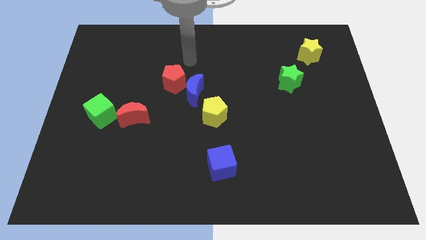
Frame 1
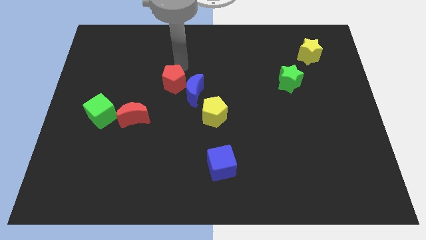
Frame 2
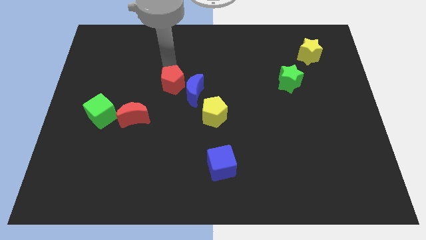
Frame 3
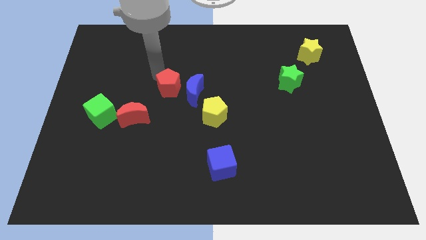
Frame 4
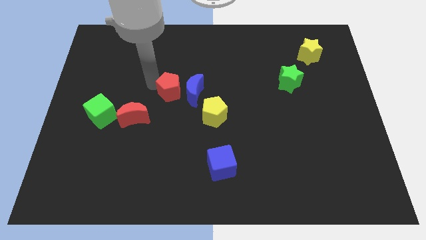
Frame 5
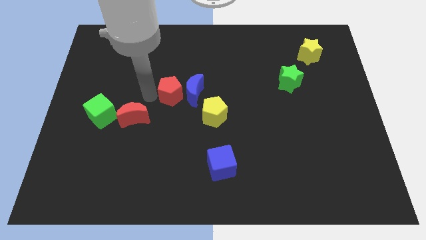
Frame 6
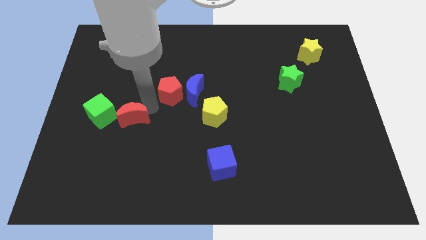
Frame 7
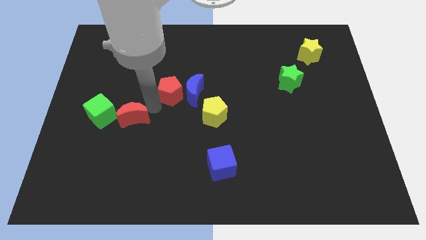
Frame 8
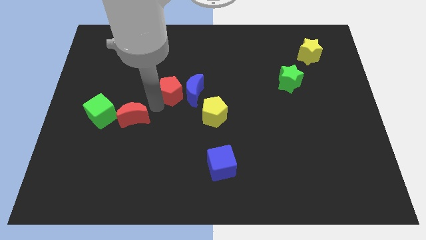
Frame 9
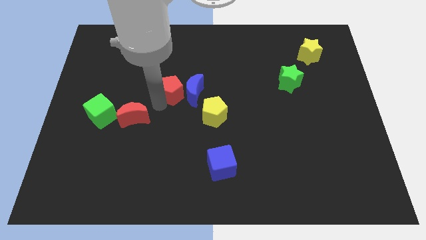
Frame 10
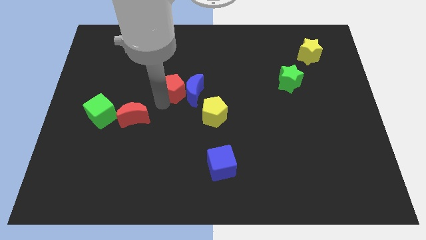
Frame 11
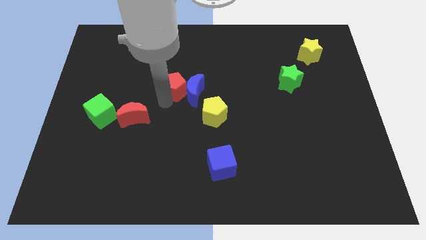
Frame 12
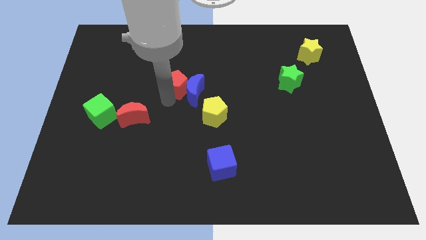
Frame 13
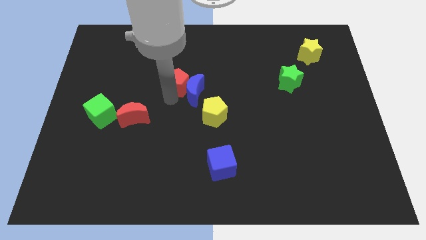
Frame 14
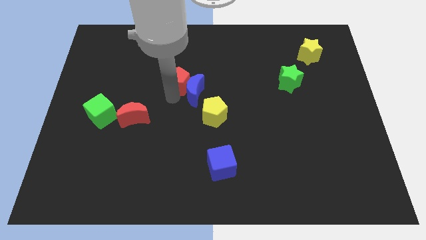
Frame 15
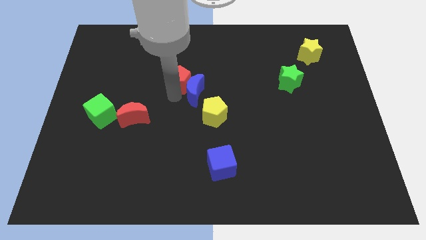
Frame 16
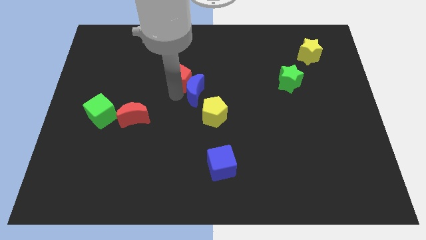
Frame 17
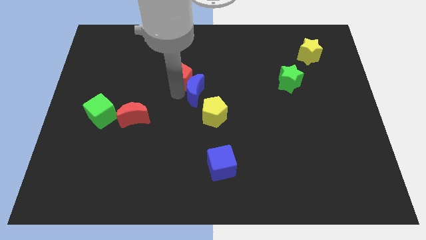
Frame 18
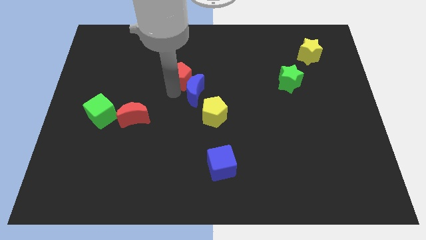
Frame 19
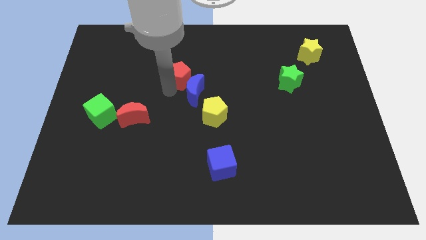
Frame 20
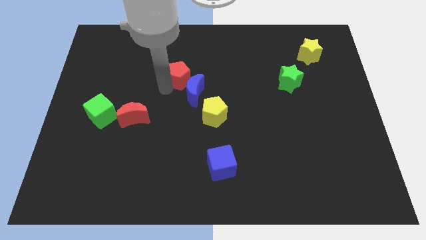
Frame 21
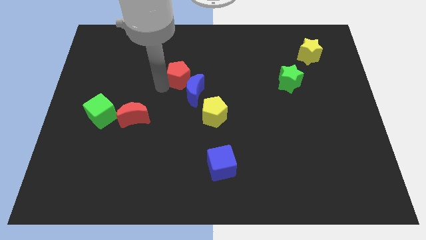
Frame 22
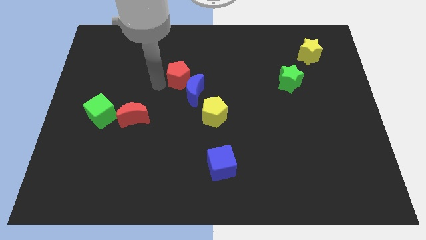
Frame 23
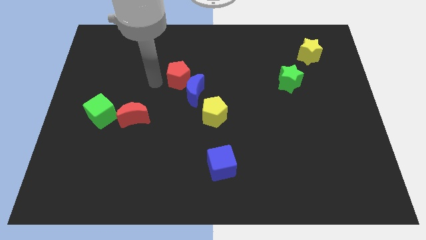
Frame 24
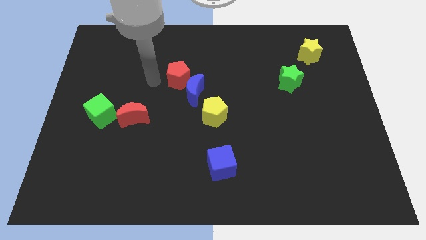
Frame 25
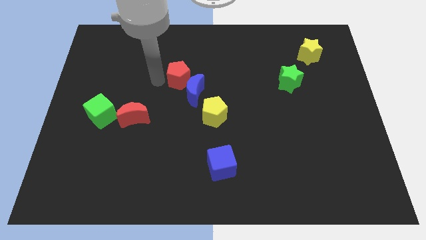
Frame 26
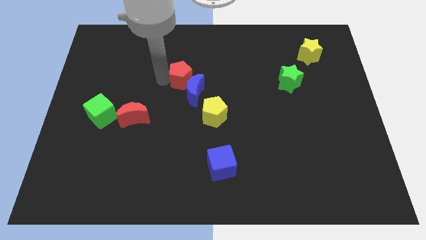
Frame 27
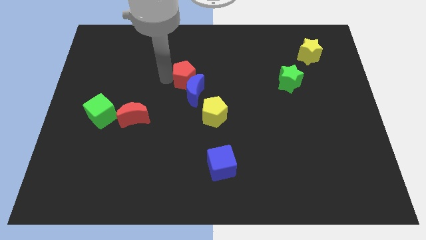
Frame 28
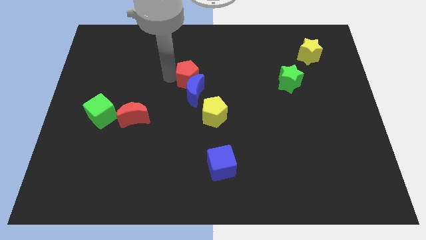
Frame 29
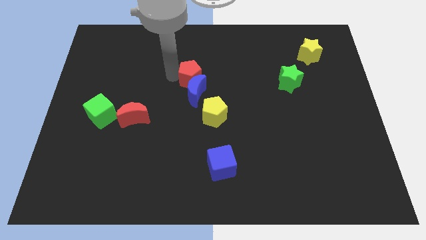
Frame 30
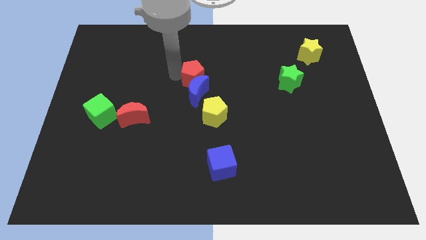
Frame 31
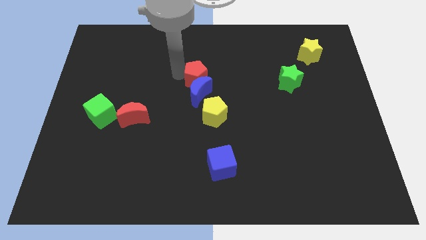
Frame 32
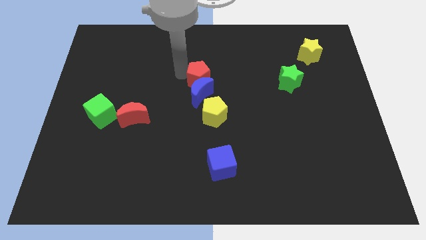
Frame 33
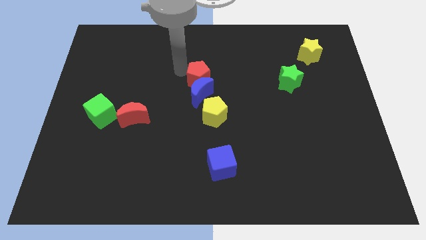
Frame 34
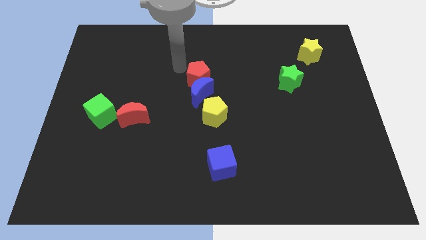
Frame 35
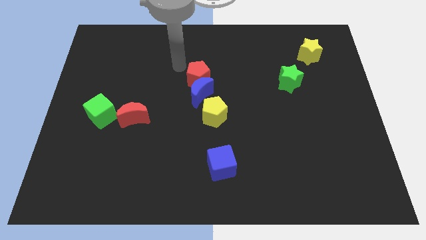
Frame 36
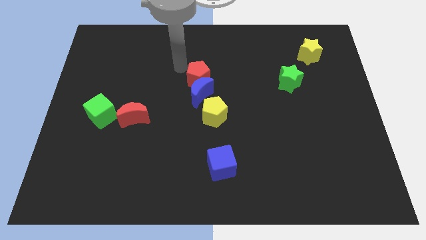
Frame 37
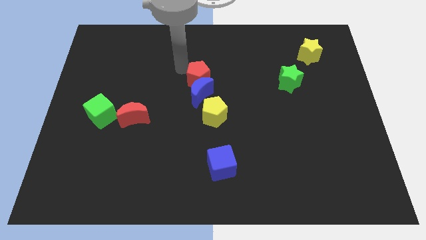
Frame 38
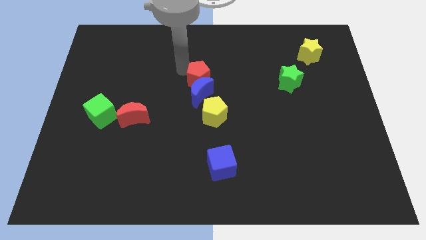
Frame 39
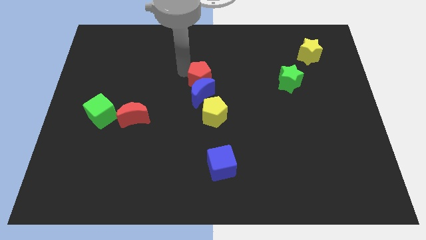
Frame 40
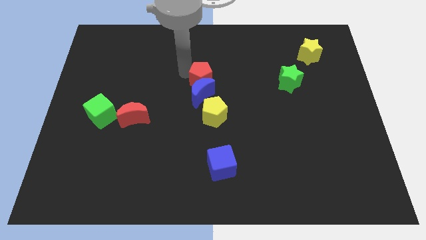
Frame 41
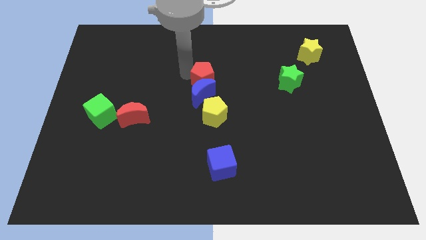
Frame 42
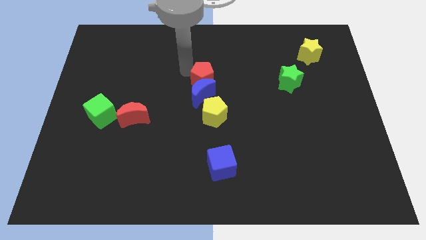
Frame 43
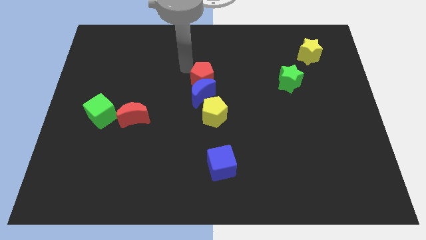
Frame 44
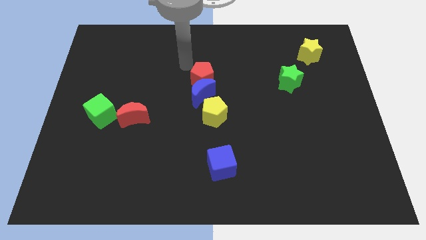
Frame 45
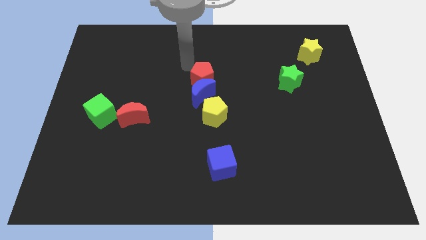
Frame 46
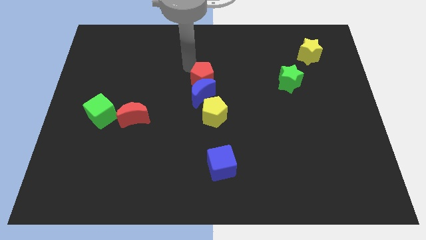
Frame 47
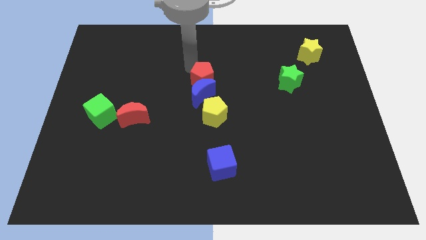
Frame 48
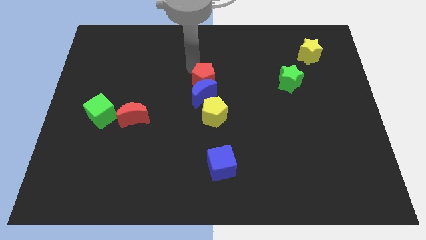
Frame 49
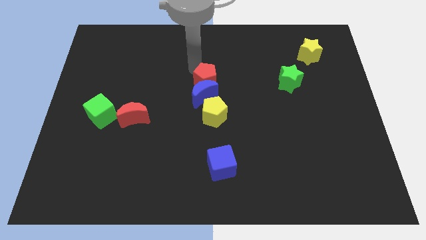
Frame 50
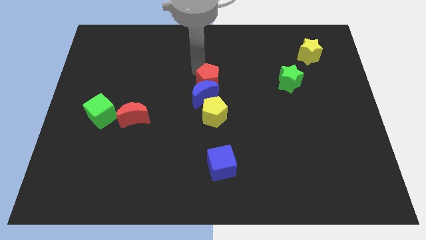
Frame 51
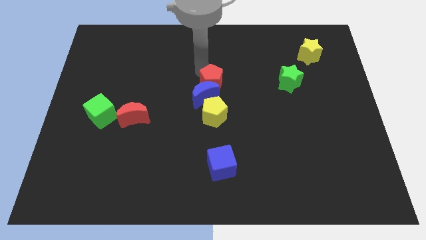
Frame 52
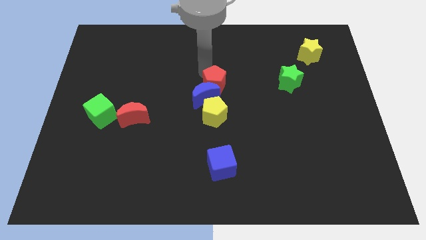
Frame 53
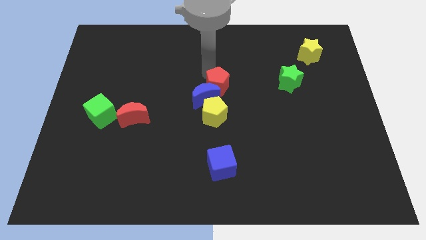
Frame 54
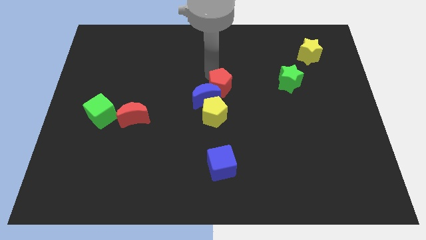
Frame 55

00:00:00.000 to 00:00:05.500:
push the red pentagon a little downwards and then to the right

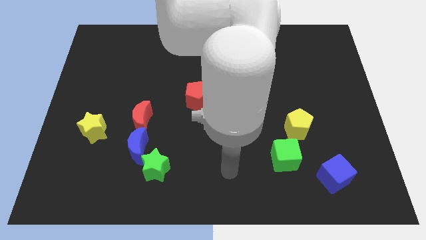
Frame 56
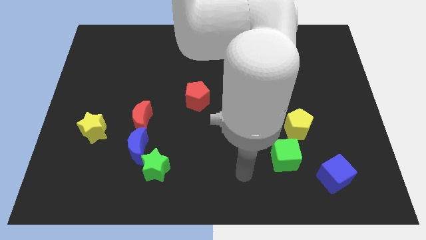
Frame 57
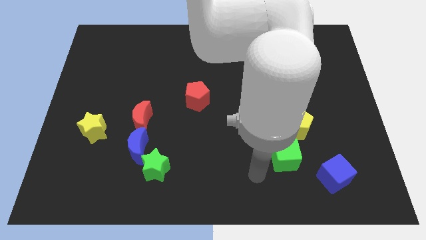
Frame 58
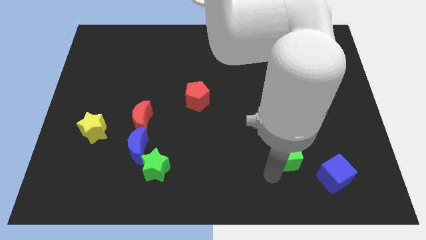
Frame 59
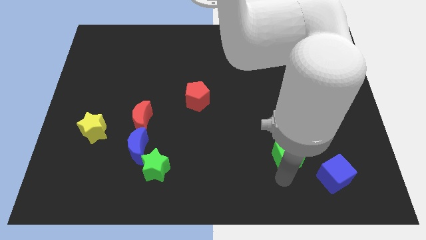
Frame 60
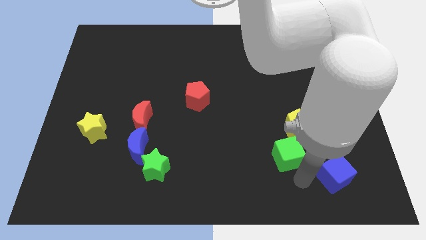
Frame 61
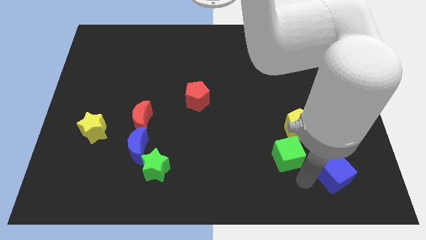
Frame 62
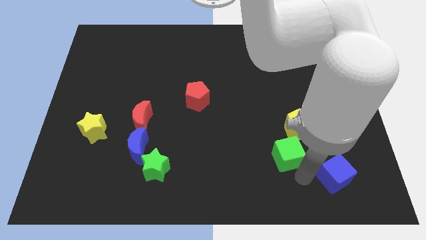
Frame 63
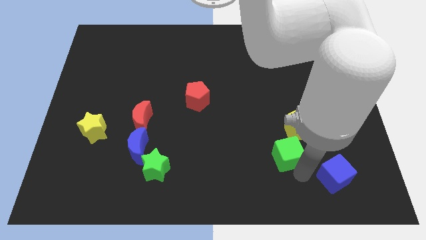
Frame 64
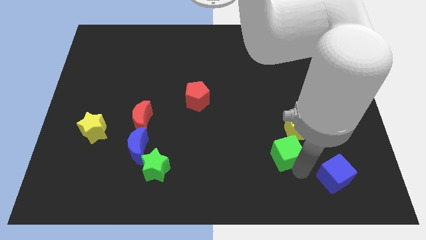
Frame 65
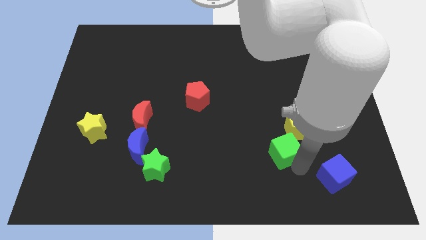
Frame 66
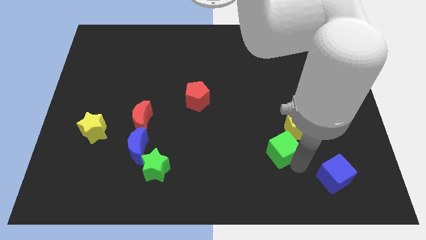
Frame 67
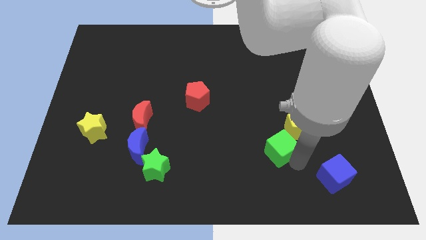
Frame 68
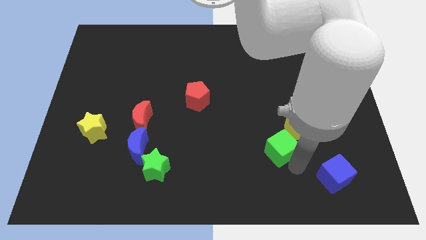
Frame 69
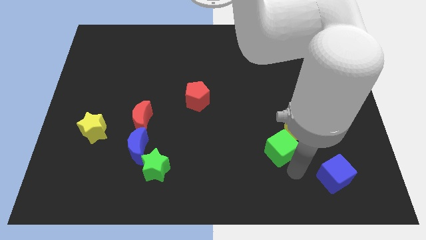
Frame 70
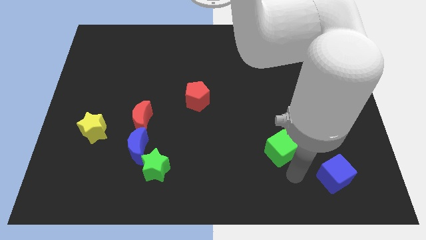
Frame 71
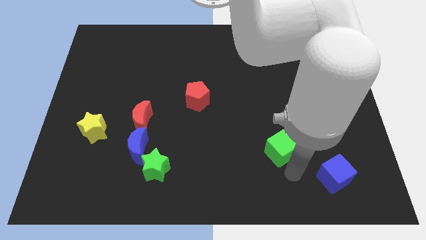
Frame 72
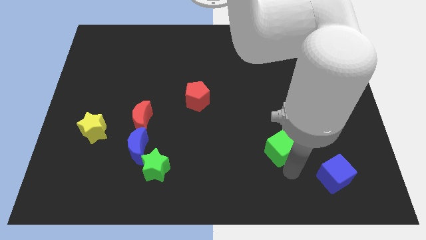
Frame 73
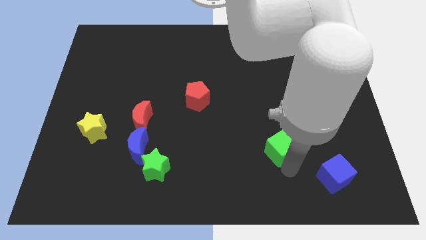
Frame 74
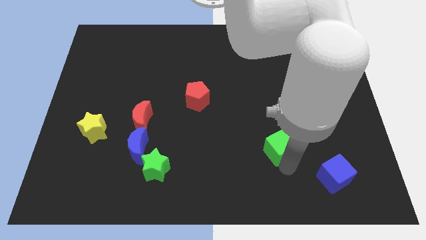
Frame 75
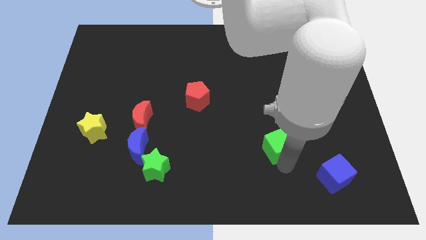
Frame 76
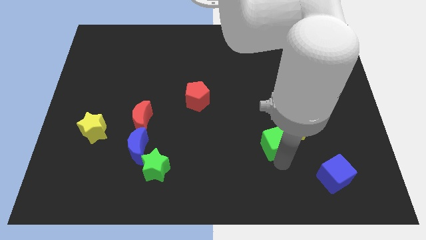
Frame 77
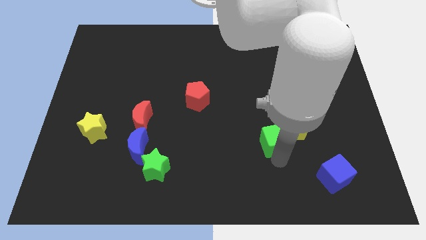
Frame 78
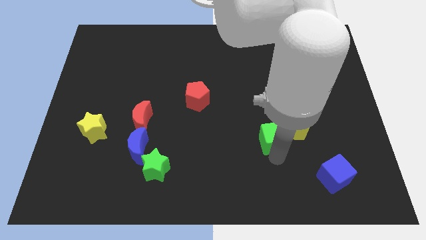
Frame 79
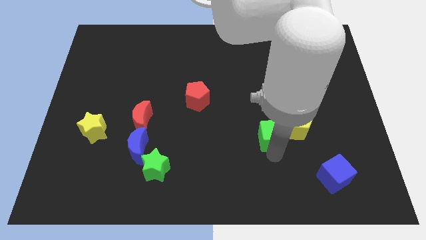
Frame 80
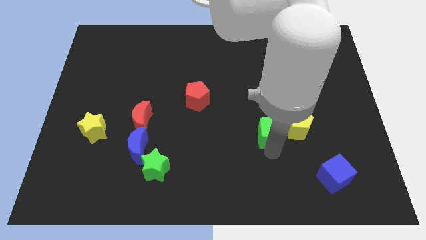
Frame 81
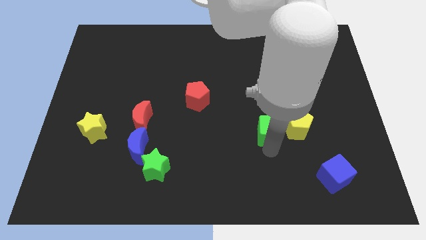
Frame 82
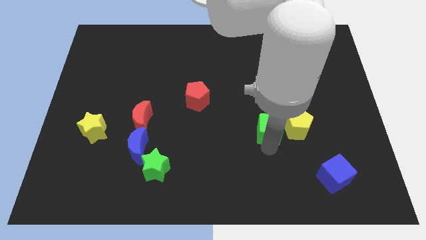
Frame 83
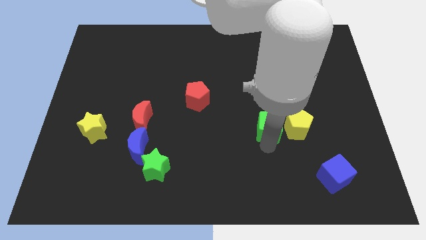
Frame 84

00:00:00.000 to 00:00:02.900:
slide the green cube slightly upwards
